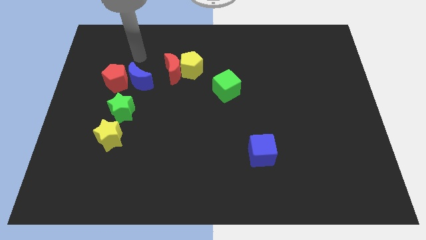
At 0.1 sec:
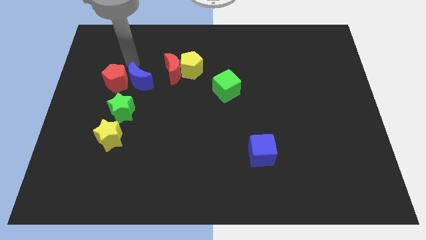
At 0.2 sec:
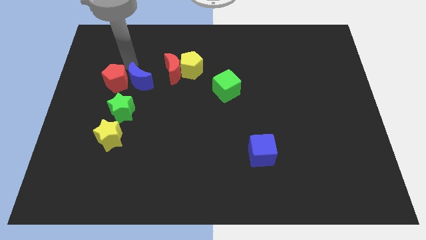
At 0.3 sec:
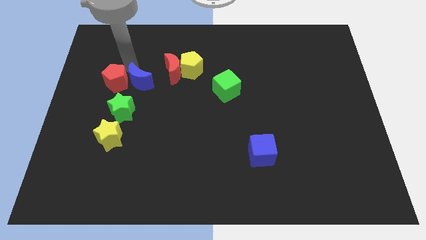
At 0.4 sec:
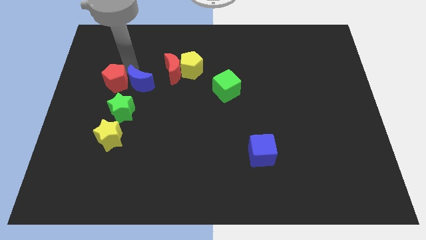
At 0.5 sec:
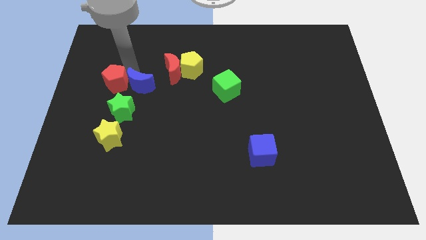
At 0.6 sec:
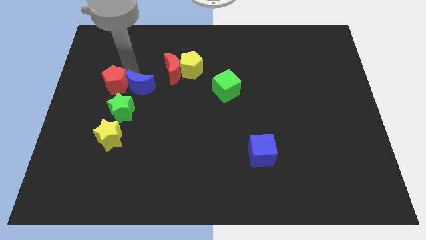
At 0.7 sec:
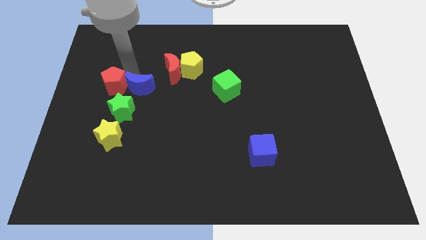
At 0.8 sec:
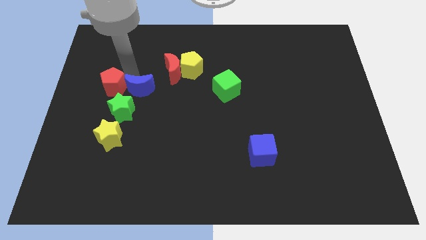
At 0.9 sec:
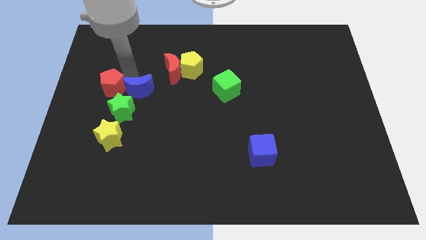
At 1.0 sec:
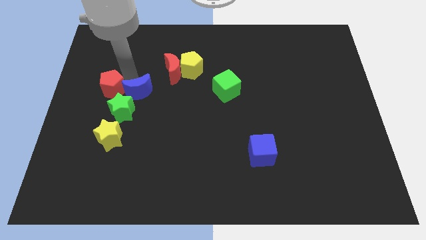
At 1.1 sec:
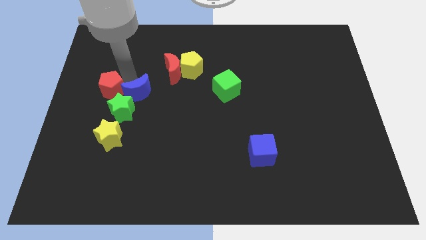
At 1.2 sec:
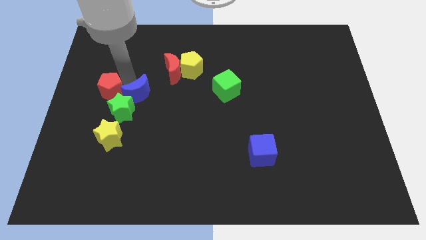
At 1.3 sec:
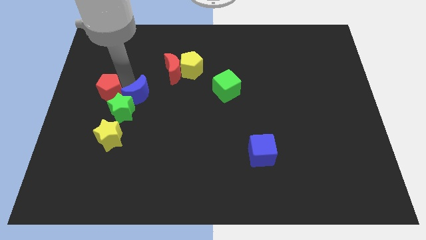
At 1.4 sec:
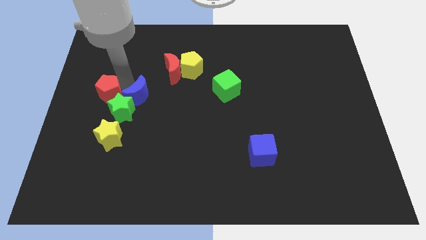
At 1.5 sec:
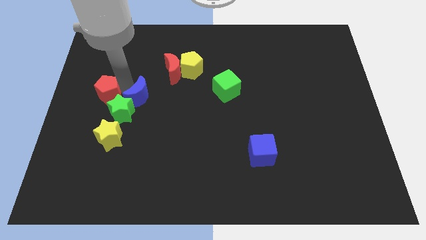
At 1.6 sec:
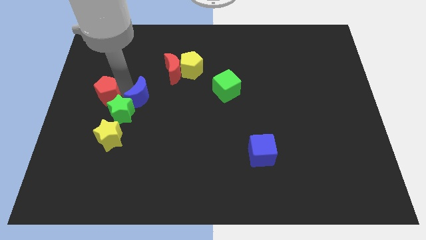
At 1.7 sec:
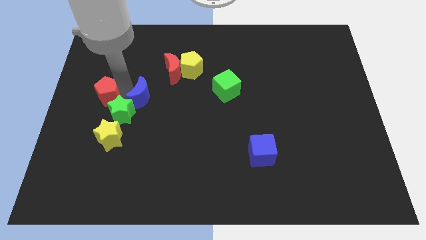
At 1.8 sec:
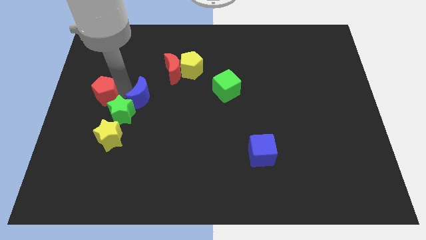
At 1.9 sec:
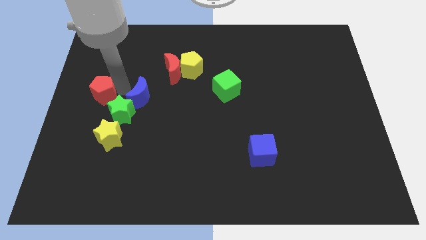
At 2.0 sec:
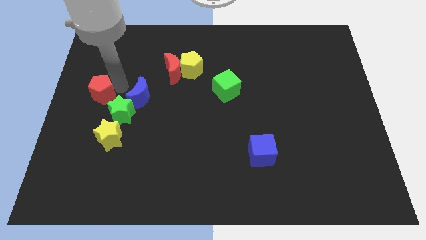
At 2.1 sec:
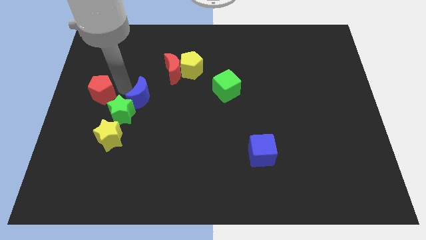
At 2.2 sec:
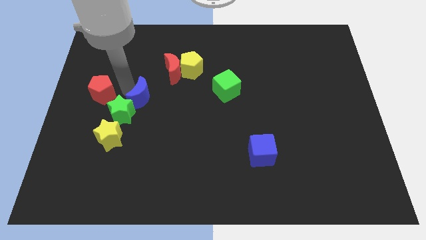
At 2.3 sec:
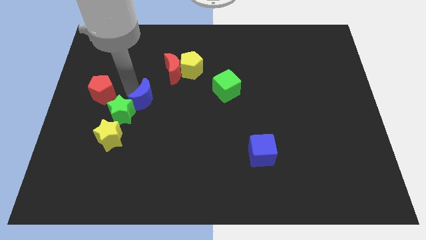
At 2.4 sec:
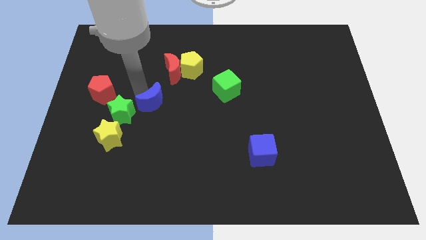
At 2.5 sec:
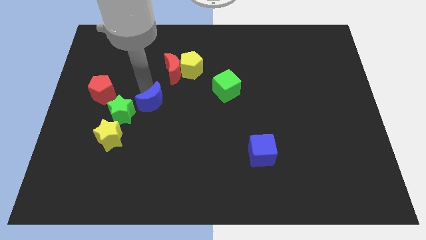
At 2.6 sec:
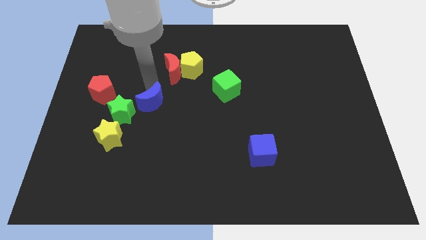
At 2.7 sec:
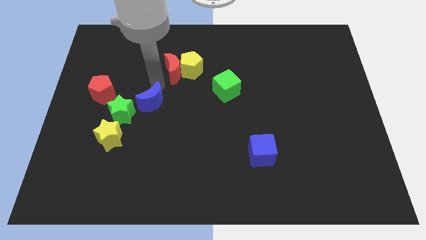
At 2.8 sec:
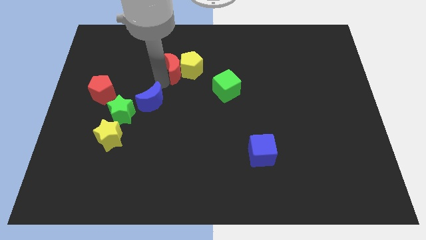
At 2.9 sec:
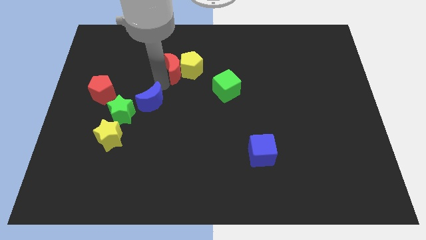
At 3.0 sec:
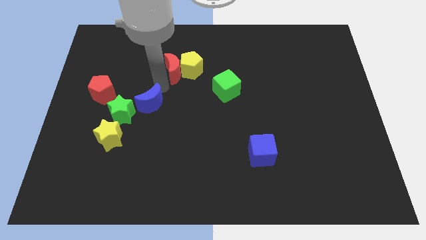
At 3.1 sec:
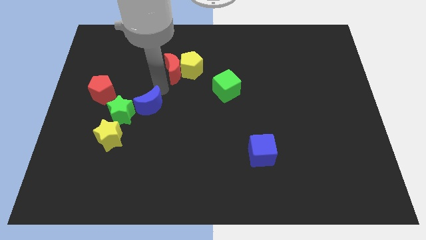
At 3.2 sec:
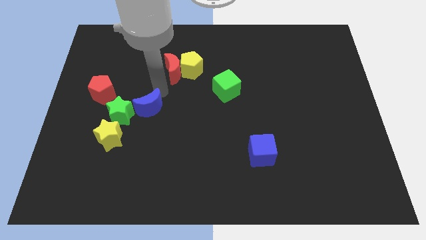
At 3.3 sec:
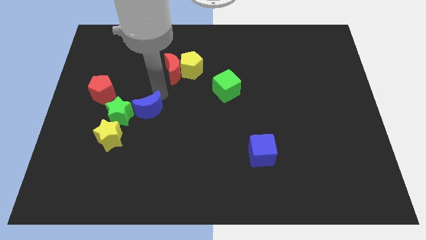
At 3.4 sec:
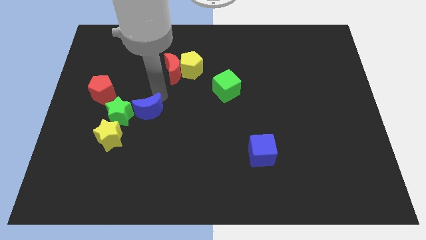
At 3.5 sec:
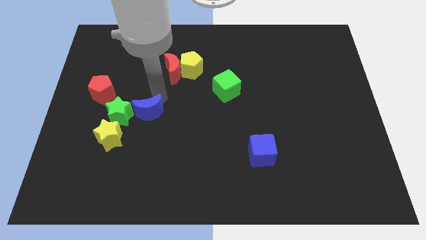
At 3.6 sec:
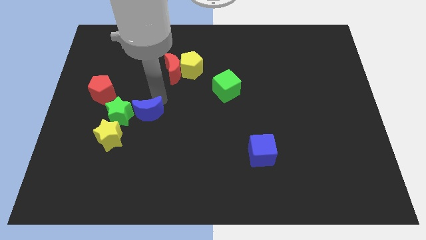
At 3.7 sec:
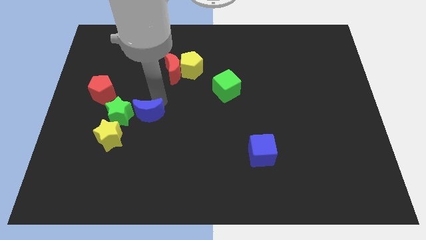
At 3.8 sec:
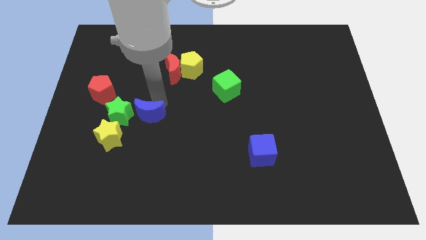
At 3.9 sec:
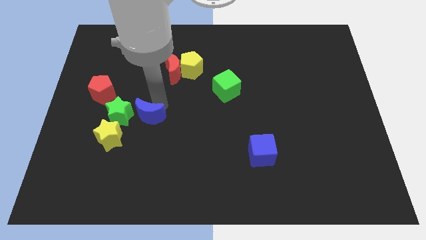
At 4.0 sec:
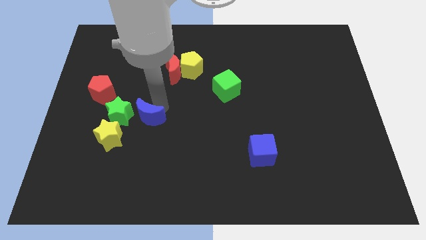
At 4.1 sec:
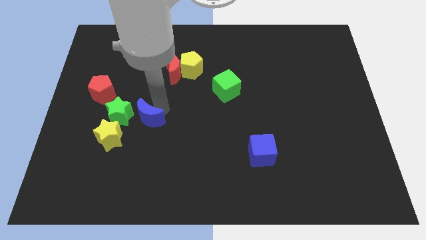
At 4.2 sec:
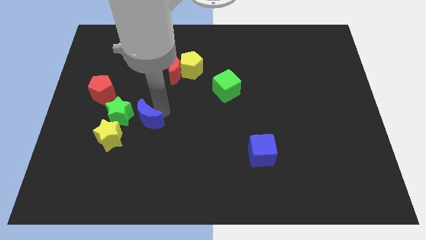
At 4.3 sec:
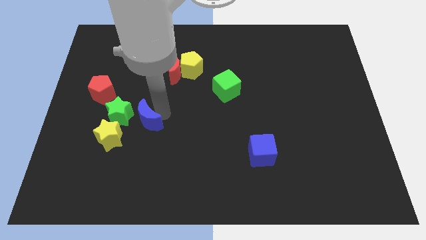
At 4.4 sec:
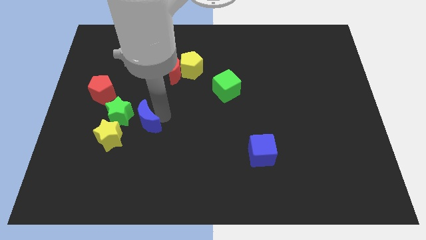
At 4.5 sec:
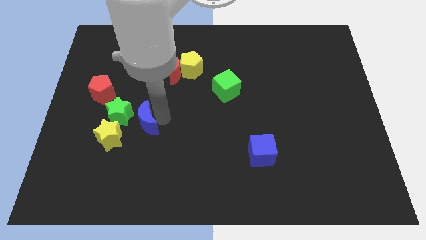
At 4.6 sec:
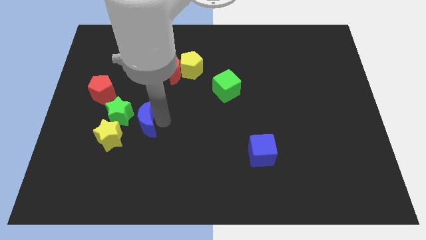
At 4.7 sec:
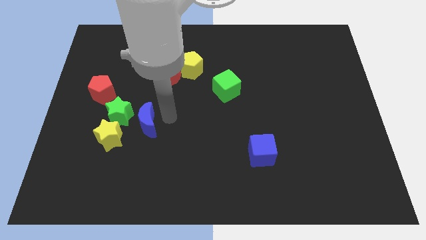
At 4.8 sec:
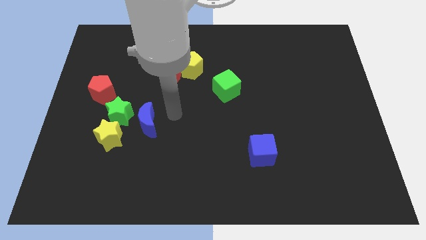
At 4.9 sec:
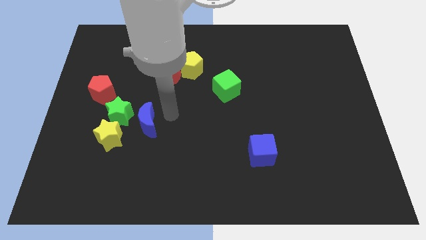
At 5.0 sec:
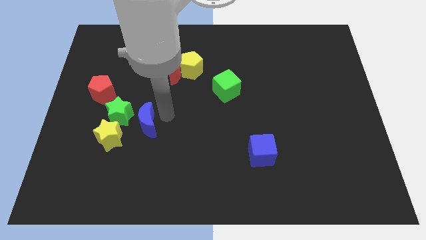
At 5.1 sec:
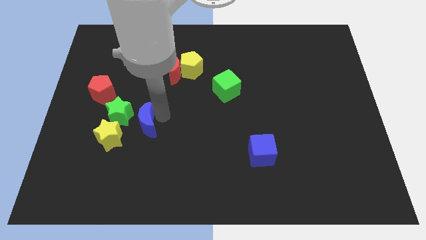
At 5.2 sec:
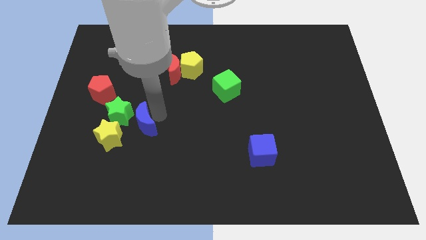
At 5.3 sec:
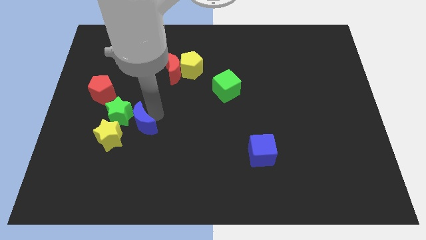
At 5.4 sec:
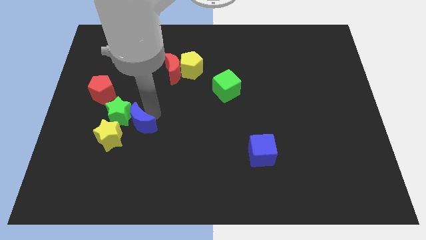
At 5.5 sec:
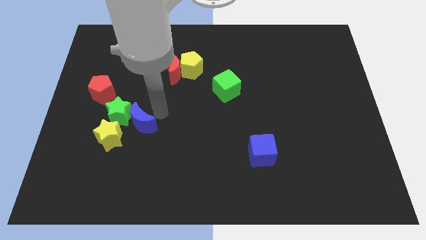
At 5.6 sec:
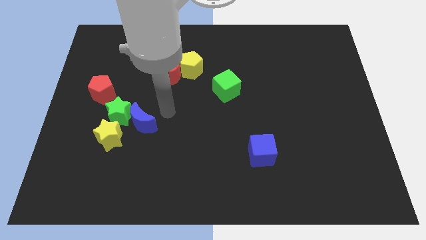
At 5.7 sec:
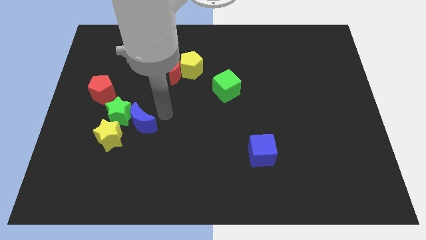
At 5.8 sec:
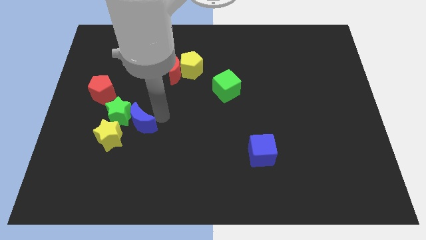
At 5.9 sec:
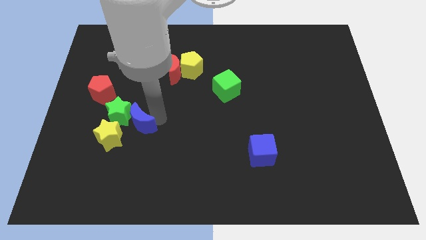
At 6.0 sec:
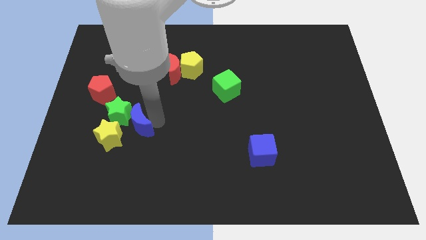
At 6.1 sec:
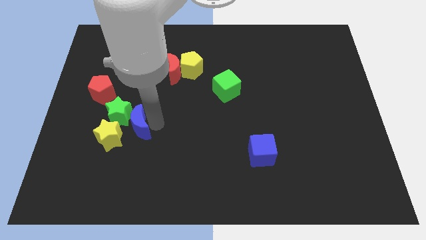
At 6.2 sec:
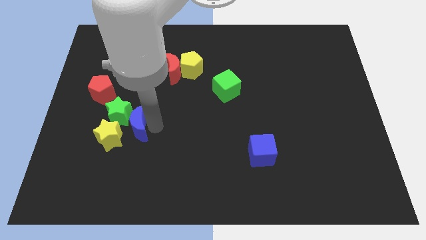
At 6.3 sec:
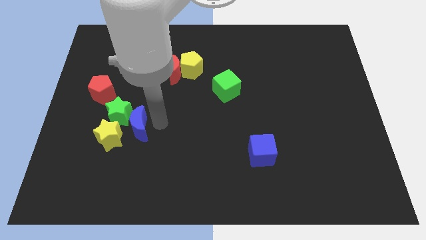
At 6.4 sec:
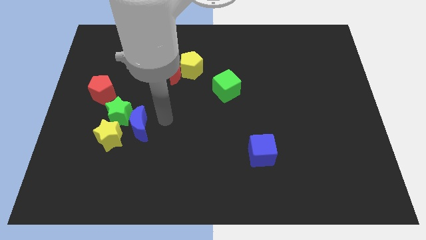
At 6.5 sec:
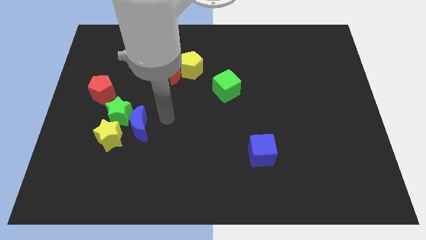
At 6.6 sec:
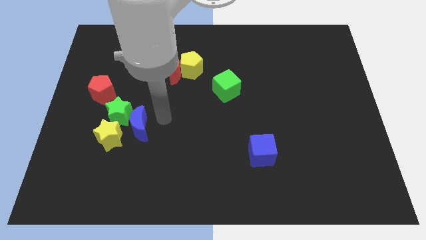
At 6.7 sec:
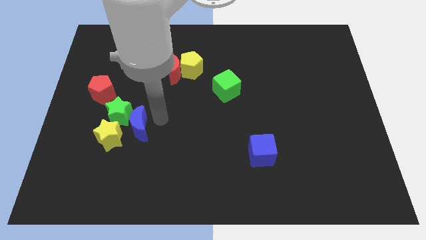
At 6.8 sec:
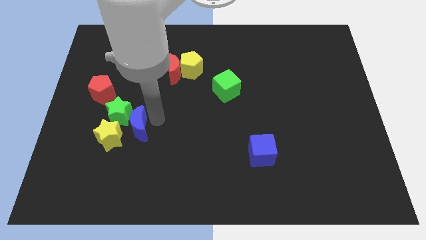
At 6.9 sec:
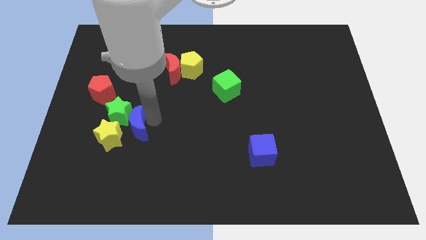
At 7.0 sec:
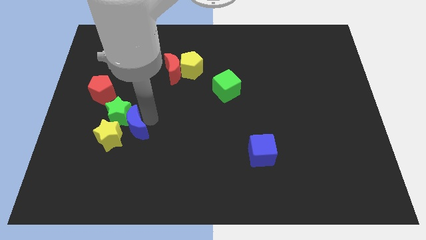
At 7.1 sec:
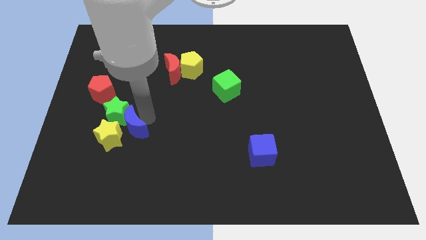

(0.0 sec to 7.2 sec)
move the blue moon to the yellow star
